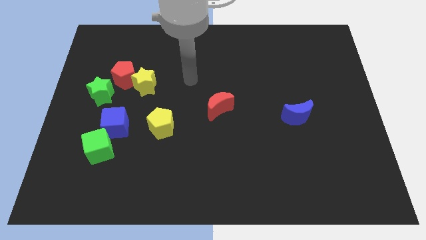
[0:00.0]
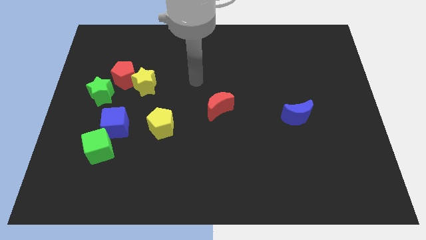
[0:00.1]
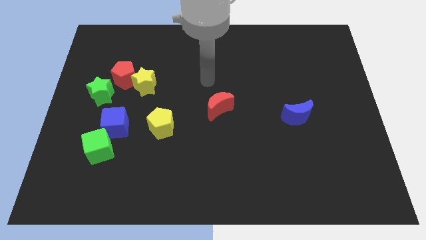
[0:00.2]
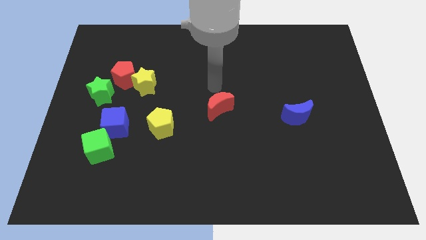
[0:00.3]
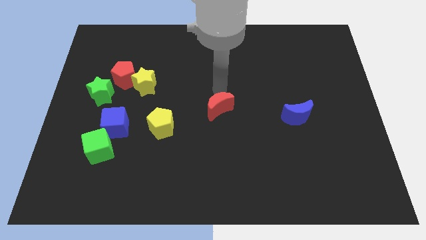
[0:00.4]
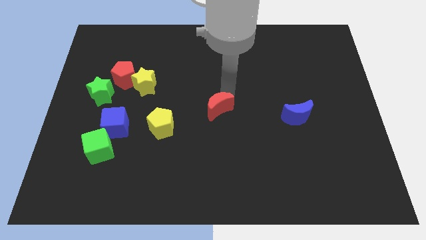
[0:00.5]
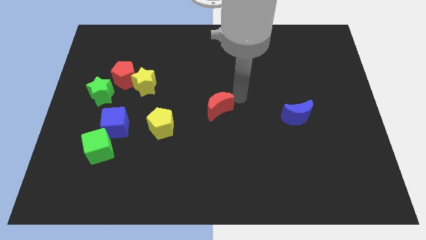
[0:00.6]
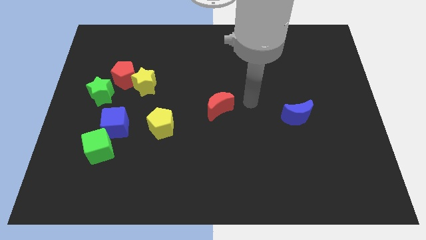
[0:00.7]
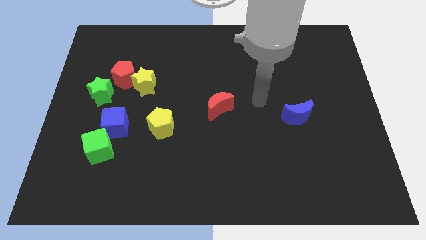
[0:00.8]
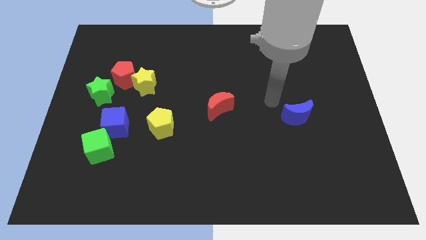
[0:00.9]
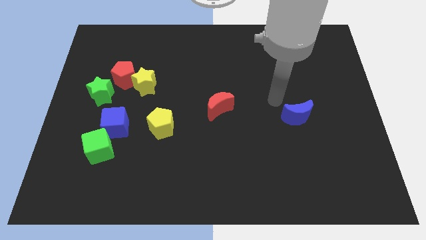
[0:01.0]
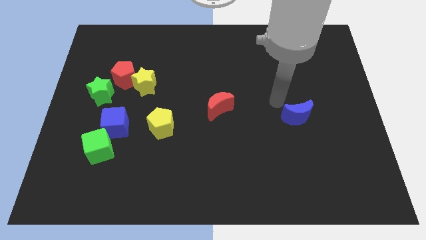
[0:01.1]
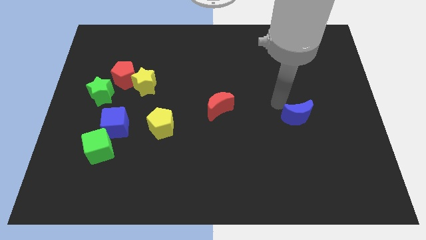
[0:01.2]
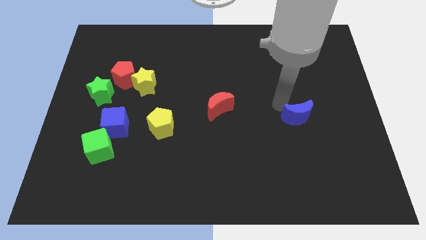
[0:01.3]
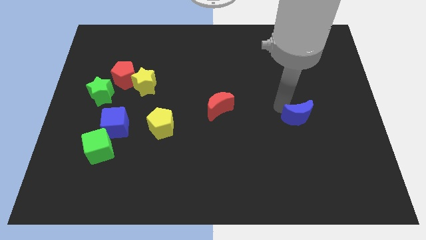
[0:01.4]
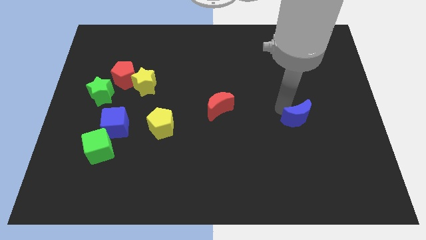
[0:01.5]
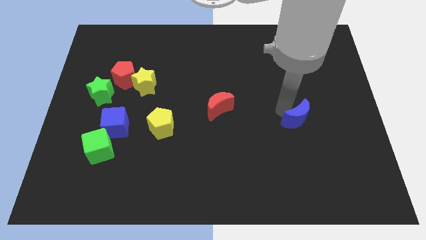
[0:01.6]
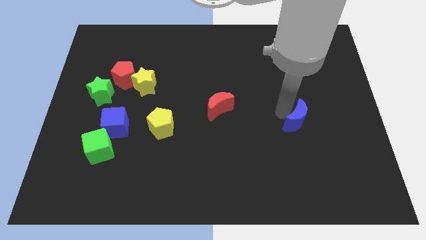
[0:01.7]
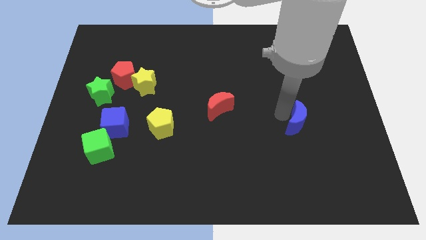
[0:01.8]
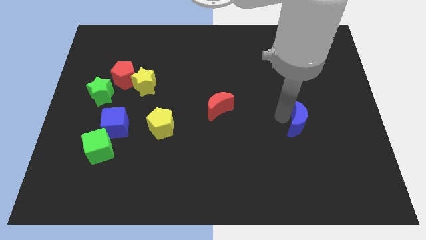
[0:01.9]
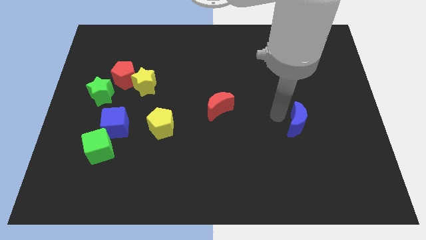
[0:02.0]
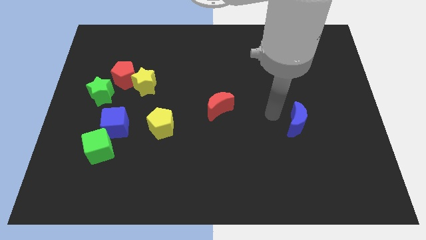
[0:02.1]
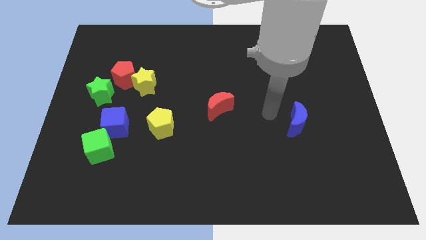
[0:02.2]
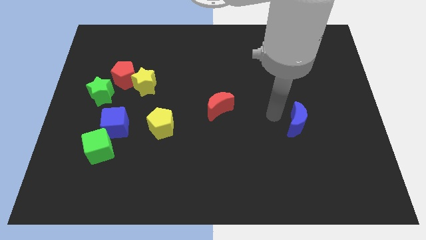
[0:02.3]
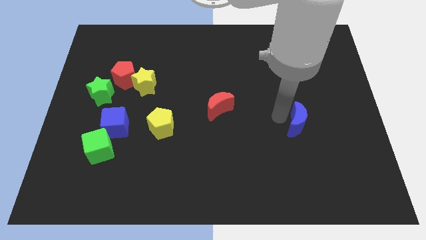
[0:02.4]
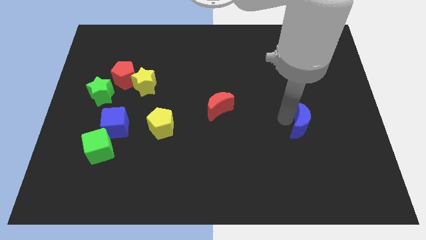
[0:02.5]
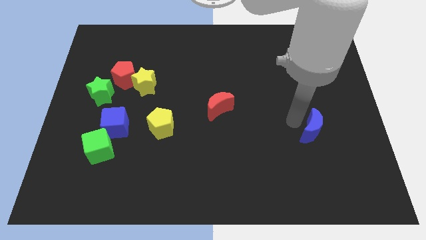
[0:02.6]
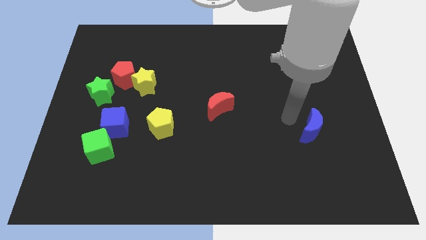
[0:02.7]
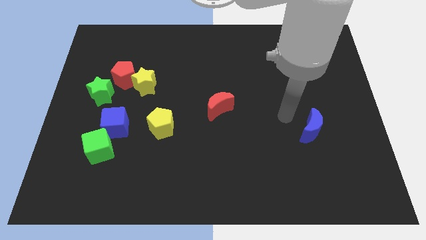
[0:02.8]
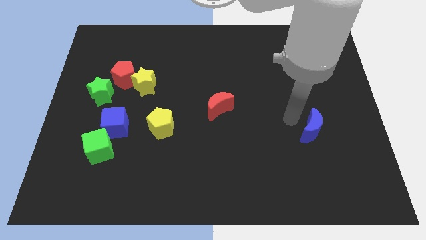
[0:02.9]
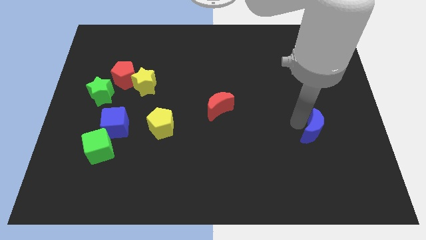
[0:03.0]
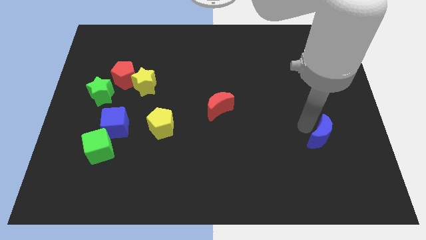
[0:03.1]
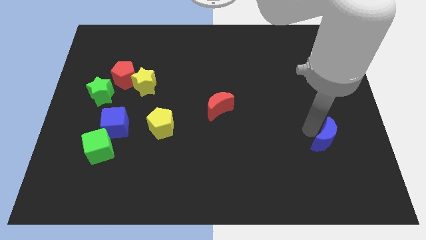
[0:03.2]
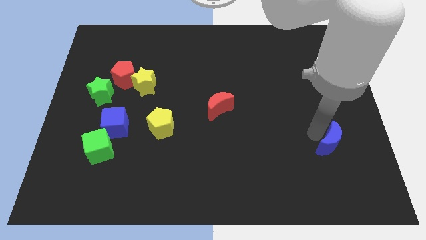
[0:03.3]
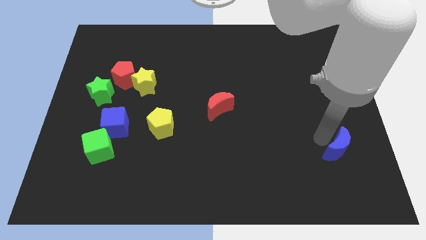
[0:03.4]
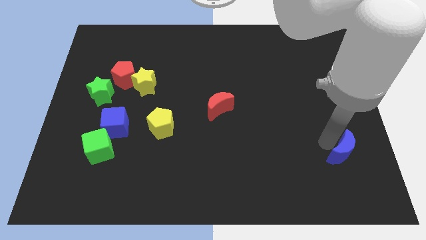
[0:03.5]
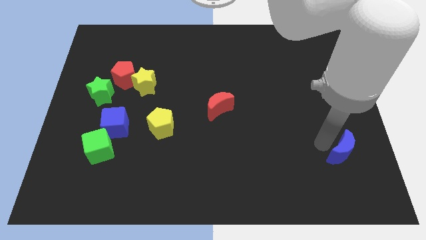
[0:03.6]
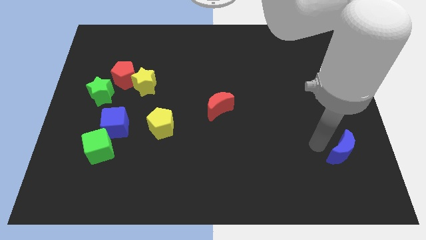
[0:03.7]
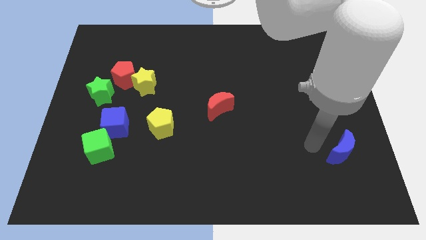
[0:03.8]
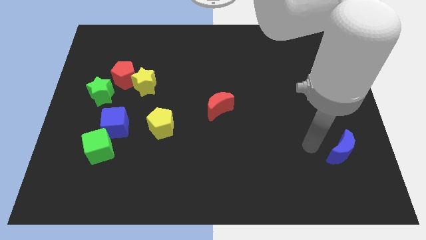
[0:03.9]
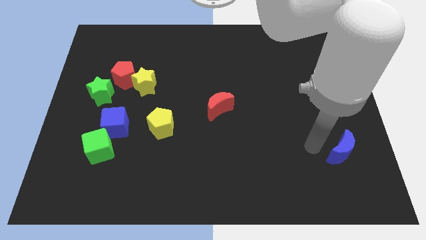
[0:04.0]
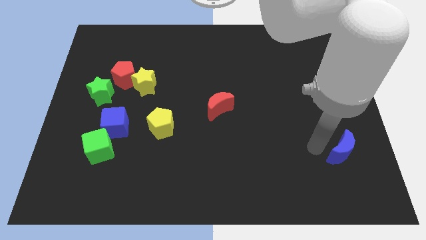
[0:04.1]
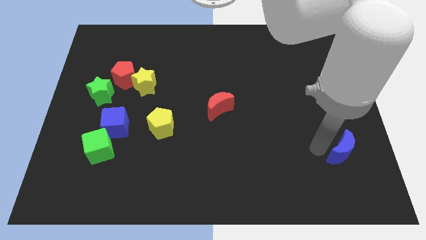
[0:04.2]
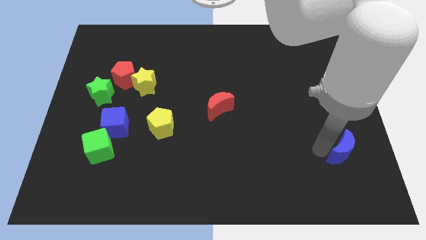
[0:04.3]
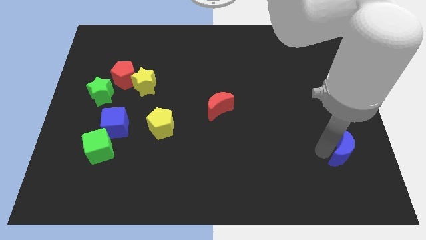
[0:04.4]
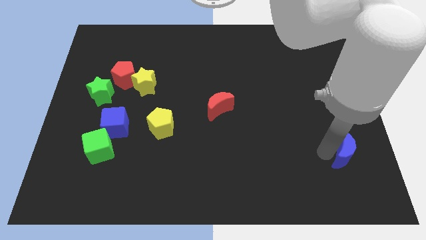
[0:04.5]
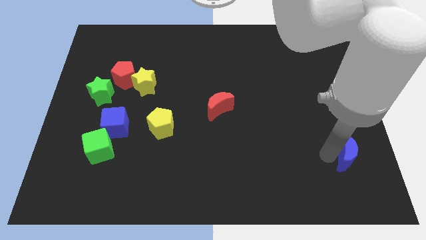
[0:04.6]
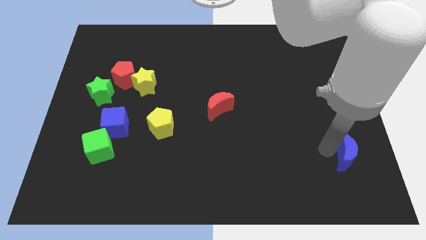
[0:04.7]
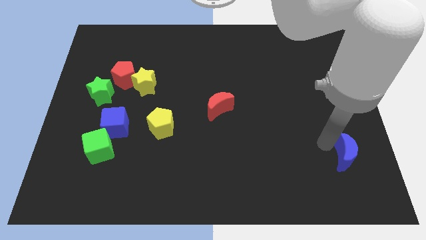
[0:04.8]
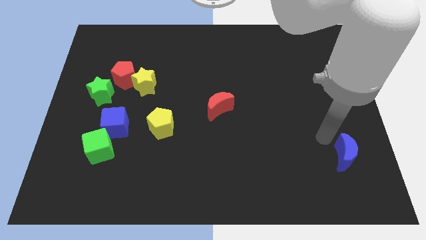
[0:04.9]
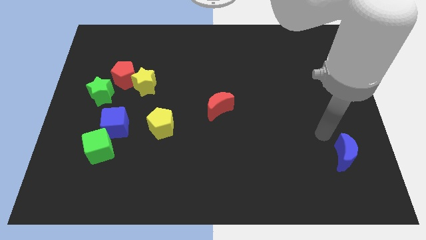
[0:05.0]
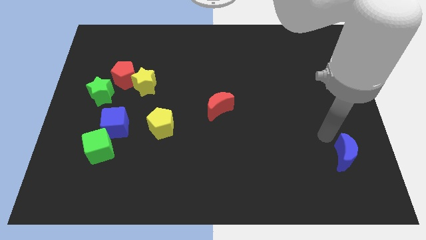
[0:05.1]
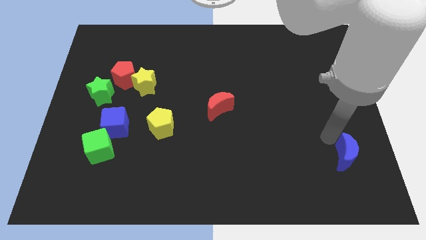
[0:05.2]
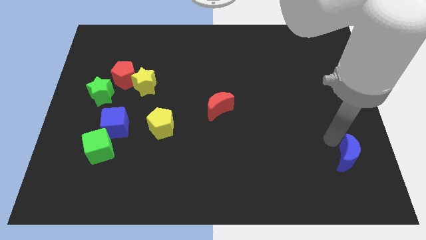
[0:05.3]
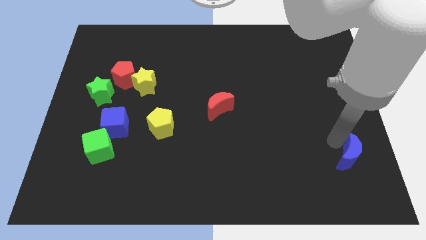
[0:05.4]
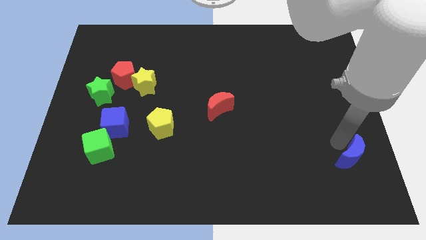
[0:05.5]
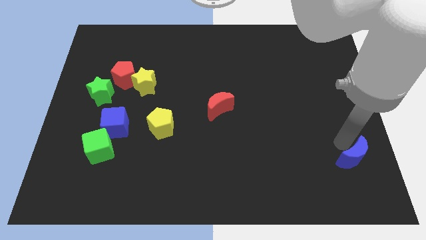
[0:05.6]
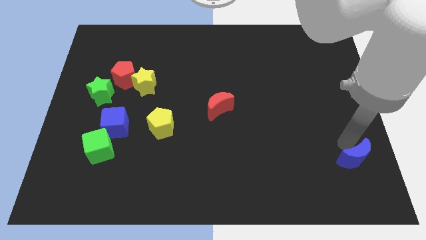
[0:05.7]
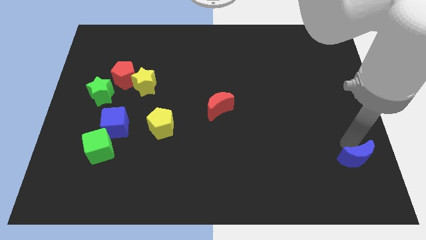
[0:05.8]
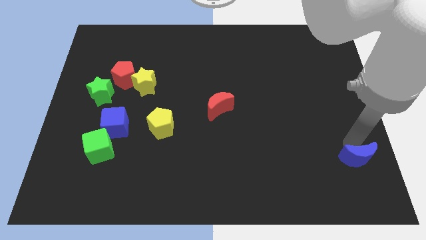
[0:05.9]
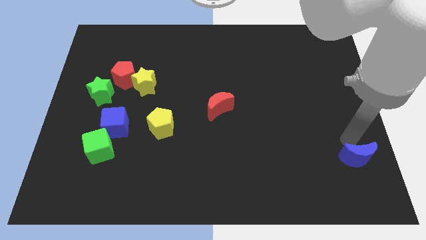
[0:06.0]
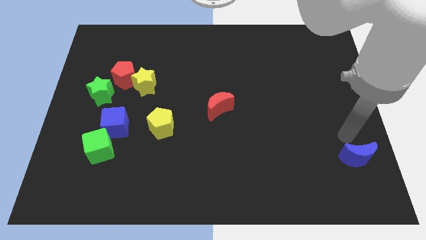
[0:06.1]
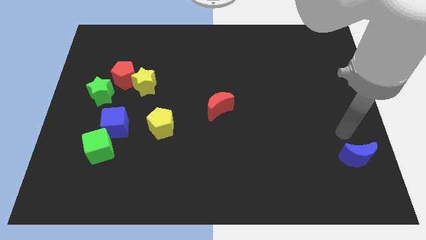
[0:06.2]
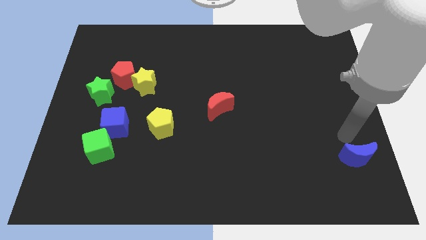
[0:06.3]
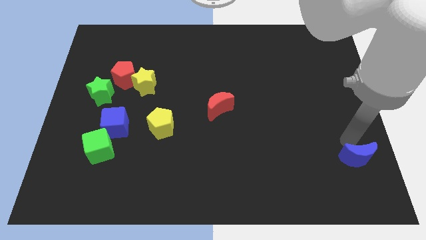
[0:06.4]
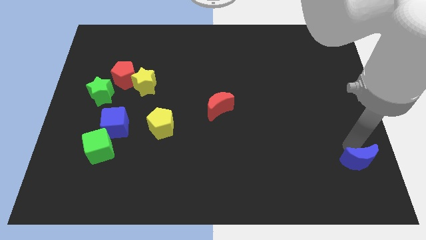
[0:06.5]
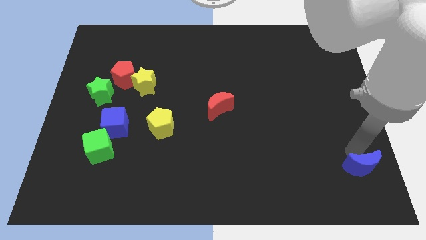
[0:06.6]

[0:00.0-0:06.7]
move the blue moon to the bottom right

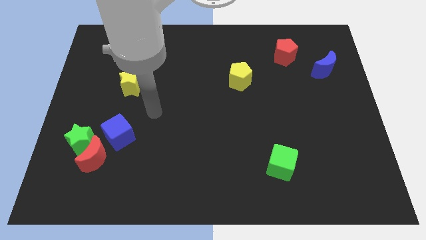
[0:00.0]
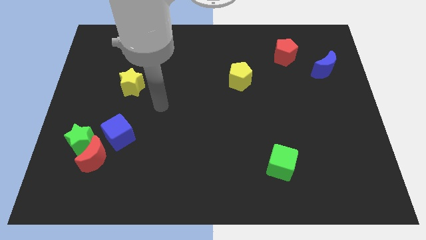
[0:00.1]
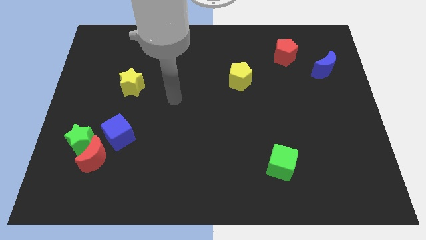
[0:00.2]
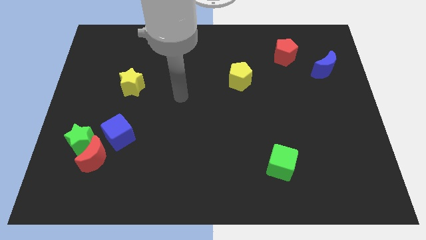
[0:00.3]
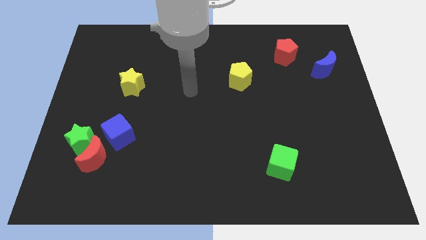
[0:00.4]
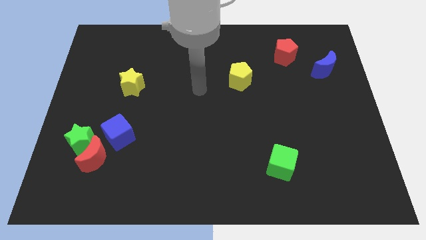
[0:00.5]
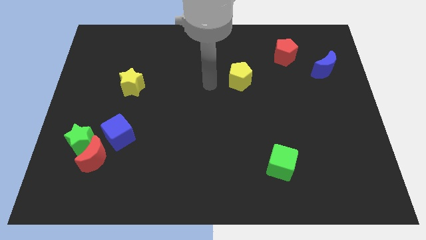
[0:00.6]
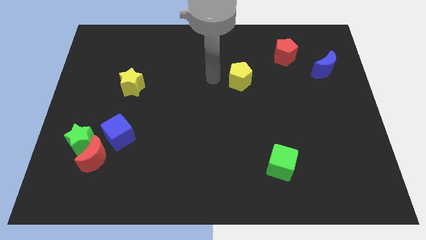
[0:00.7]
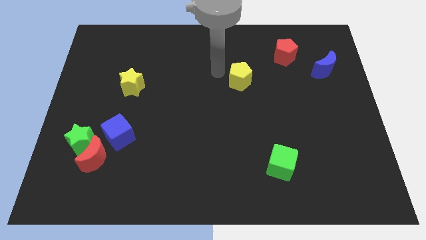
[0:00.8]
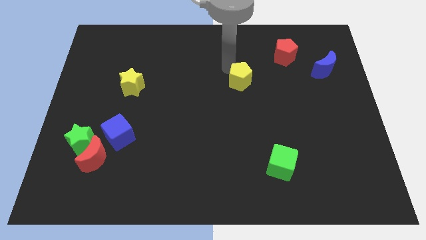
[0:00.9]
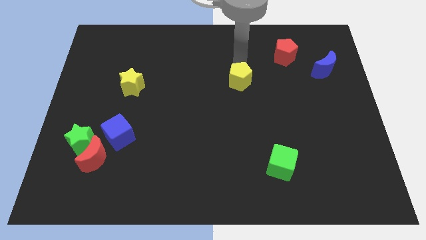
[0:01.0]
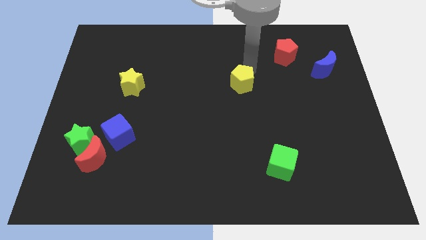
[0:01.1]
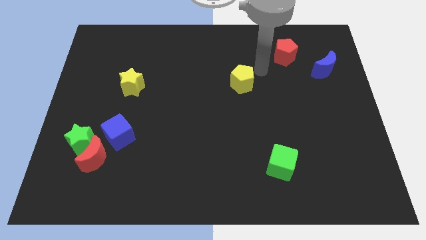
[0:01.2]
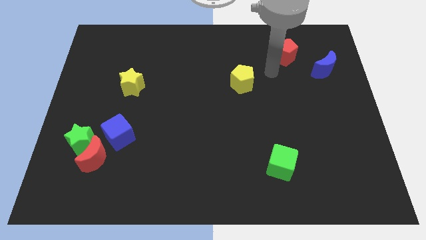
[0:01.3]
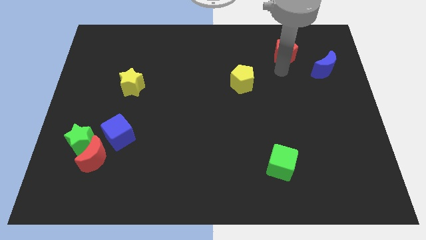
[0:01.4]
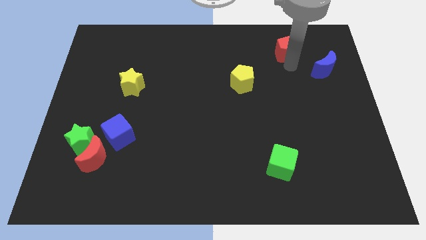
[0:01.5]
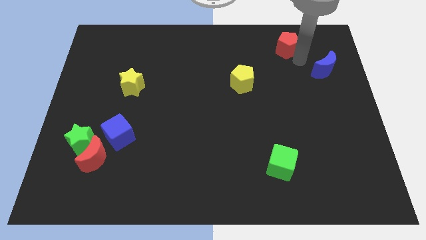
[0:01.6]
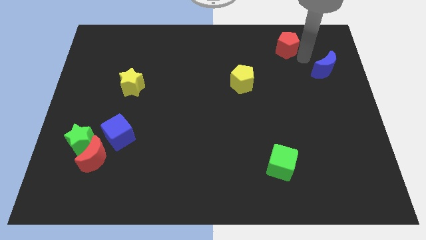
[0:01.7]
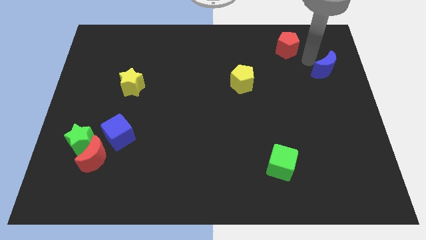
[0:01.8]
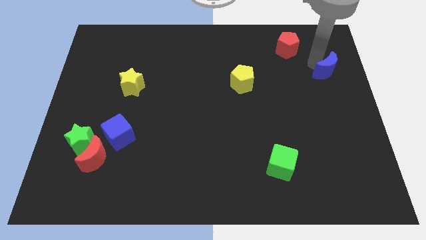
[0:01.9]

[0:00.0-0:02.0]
slide the blue moon to the center right
